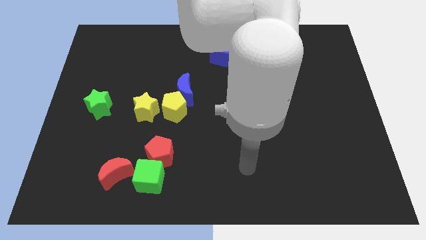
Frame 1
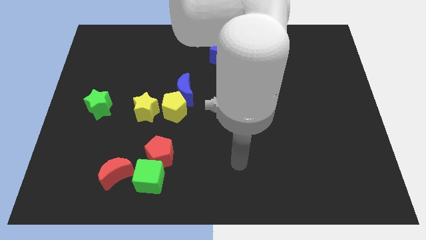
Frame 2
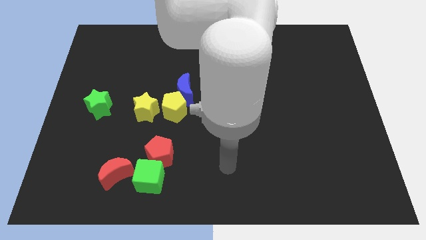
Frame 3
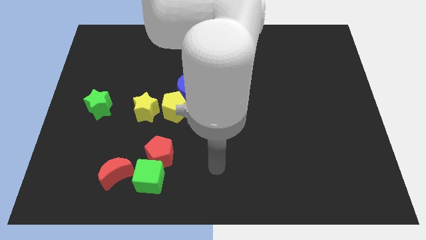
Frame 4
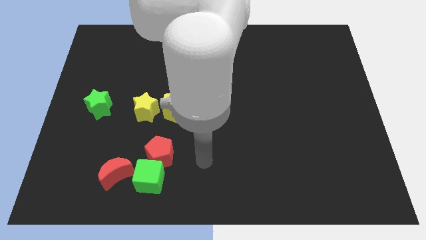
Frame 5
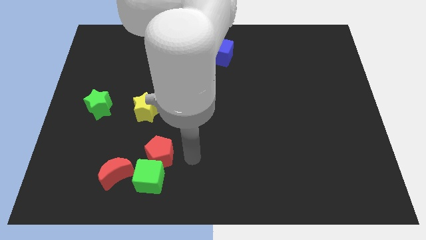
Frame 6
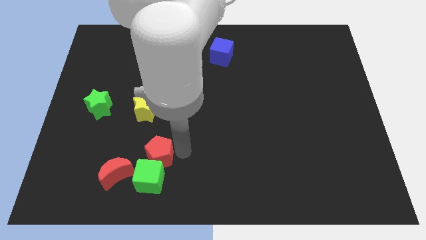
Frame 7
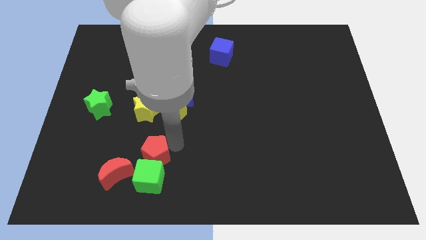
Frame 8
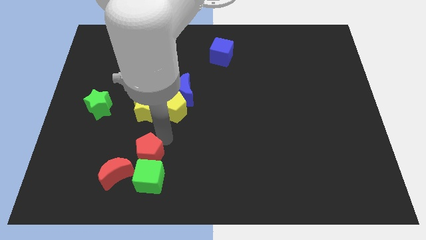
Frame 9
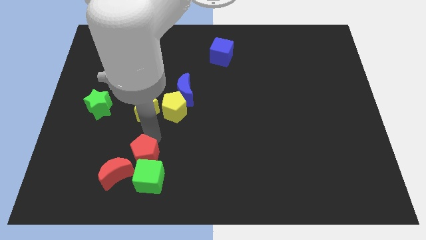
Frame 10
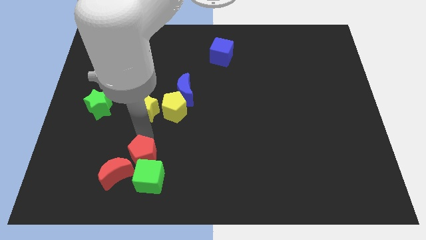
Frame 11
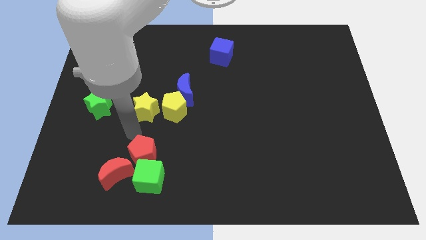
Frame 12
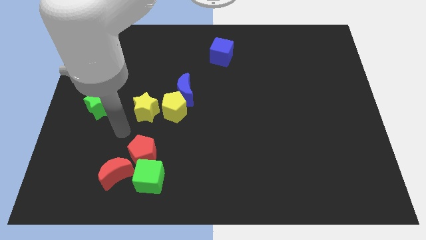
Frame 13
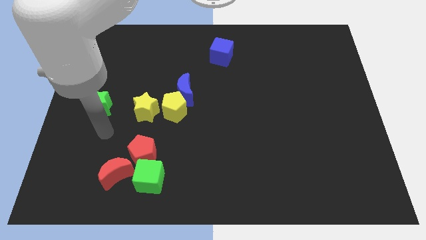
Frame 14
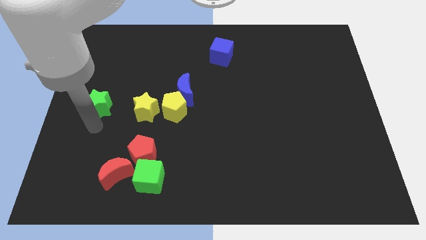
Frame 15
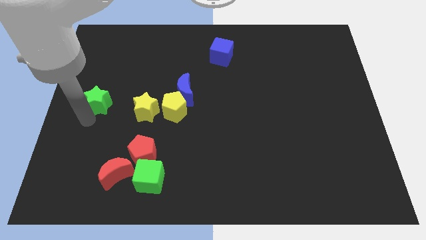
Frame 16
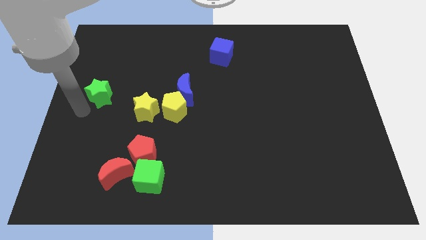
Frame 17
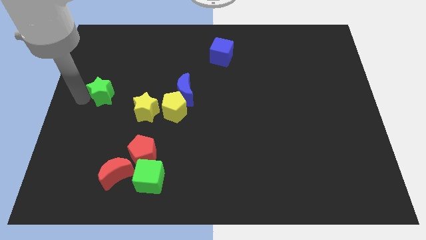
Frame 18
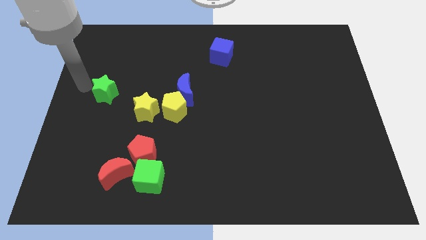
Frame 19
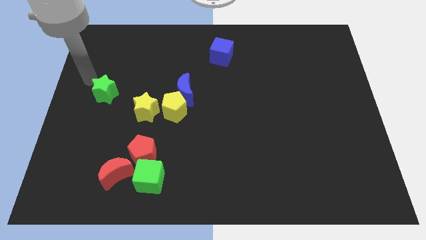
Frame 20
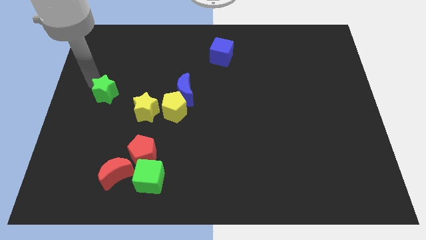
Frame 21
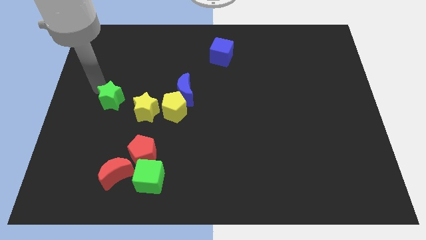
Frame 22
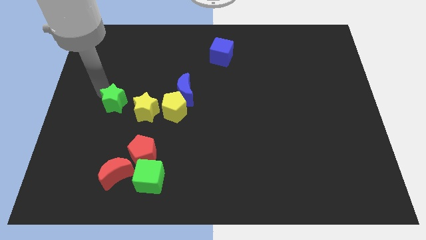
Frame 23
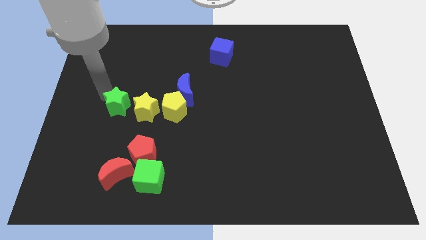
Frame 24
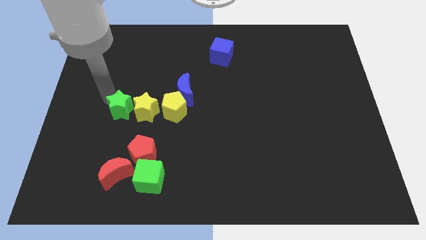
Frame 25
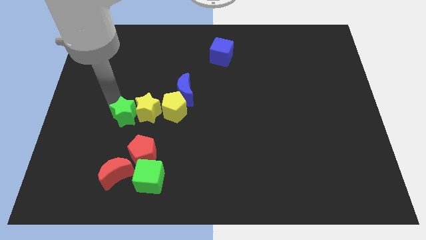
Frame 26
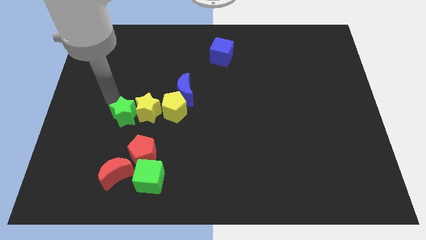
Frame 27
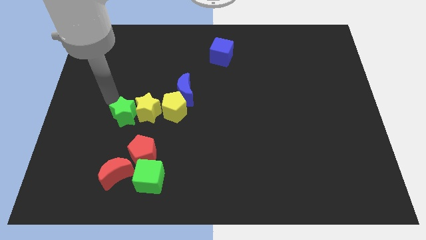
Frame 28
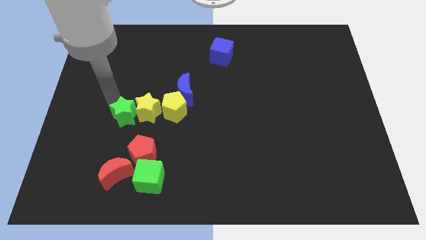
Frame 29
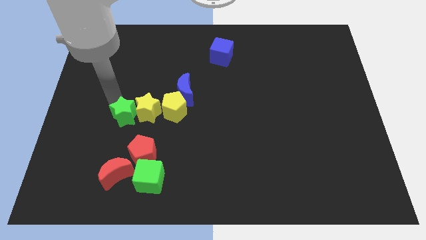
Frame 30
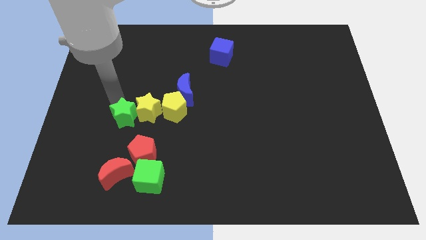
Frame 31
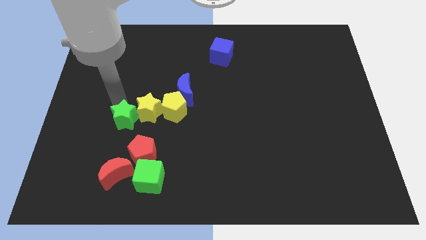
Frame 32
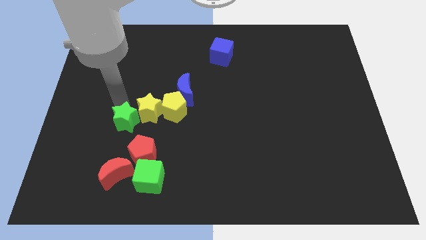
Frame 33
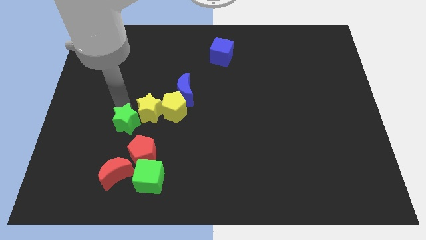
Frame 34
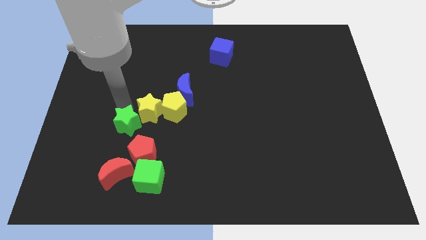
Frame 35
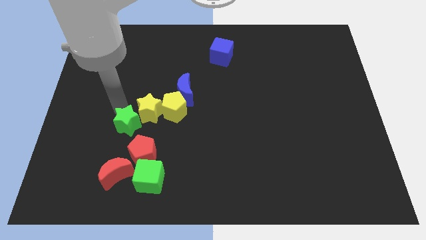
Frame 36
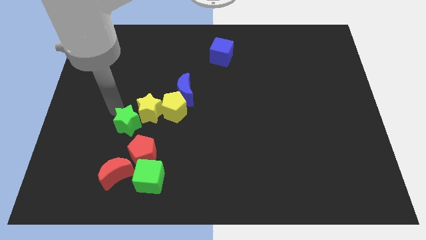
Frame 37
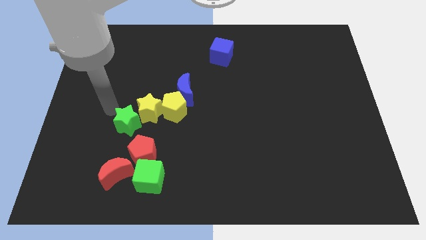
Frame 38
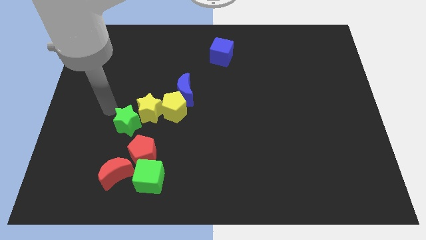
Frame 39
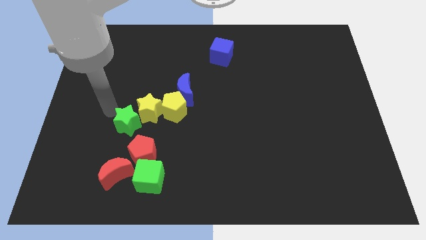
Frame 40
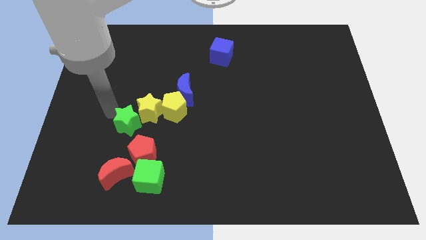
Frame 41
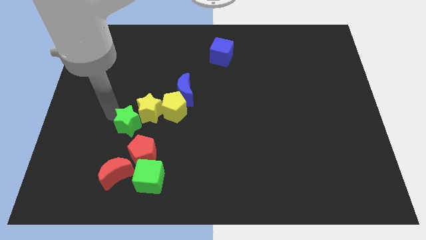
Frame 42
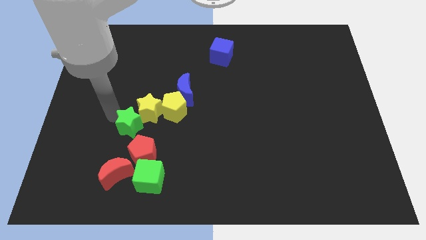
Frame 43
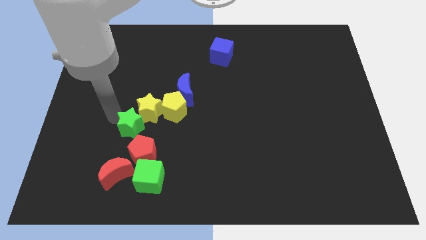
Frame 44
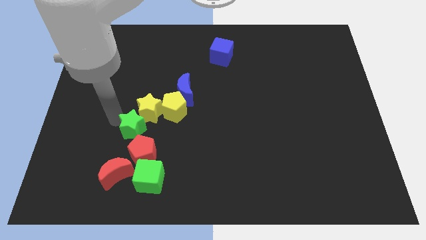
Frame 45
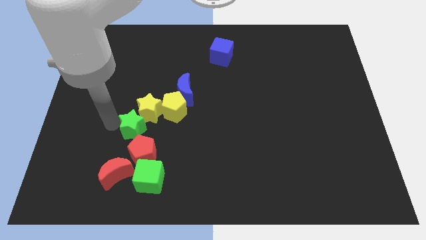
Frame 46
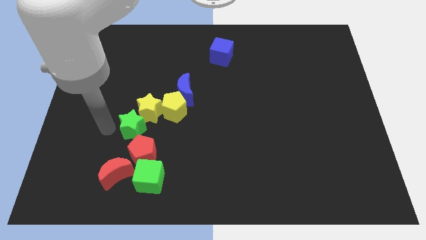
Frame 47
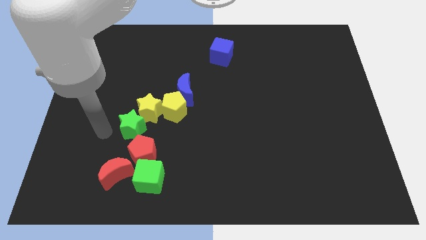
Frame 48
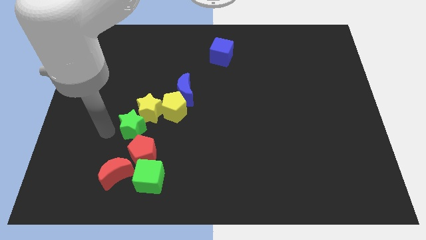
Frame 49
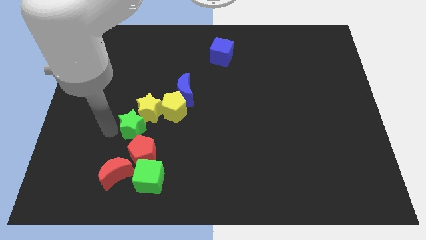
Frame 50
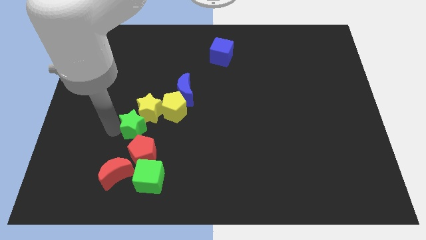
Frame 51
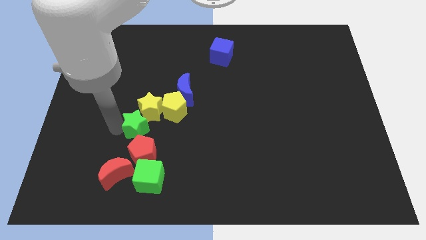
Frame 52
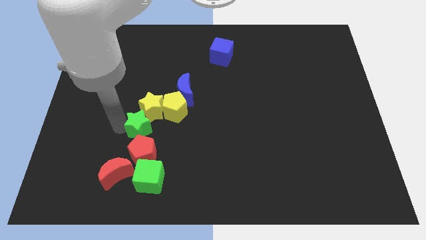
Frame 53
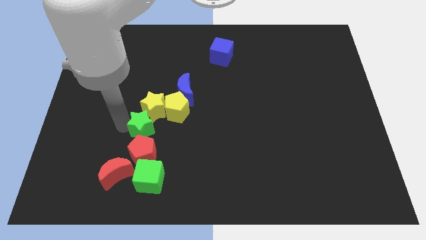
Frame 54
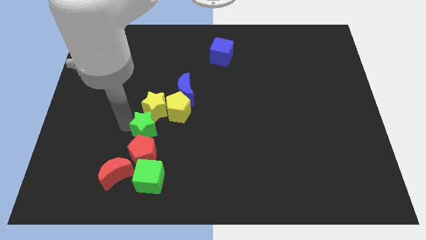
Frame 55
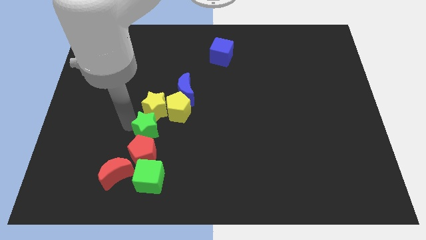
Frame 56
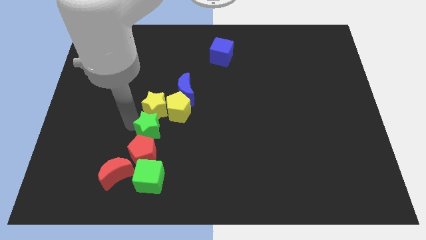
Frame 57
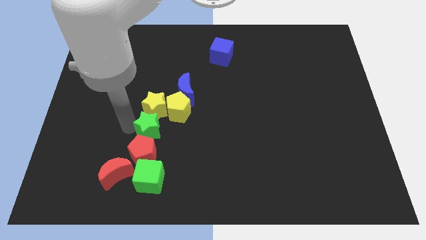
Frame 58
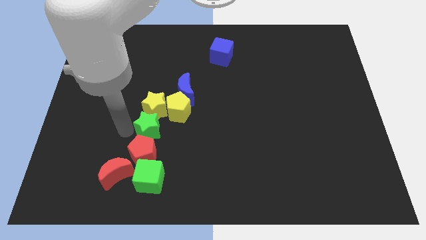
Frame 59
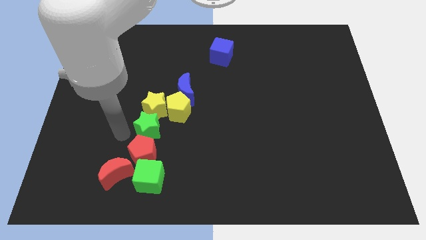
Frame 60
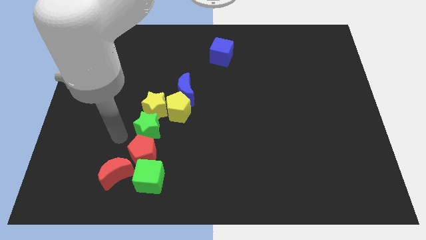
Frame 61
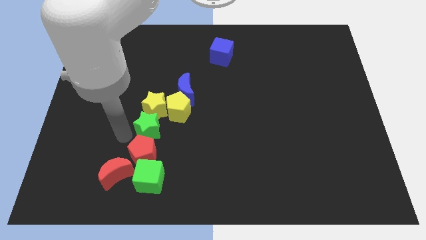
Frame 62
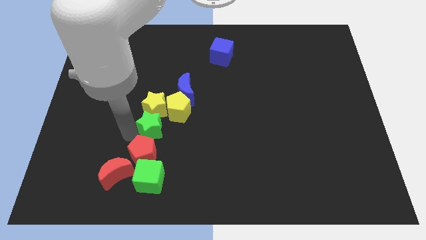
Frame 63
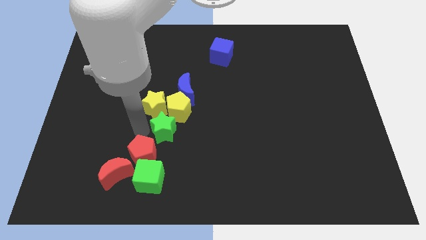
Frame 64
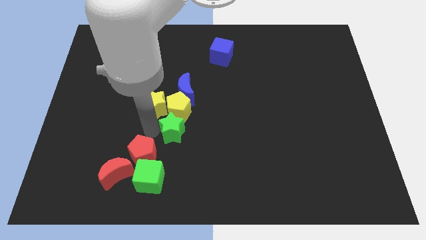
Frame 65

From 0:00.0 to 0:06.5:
move the green star to the bottom right of the yellow pentagon

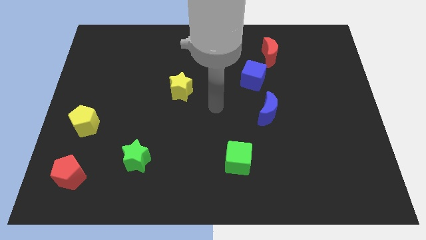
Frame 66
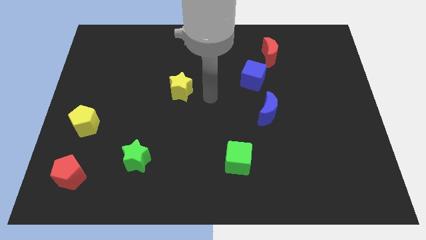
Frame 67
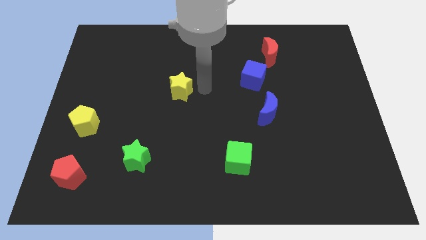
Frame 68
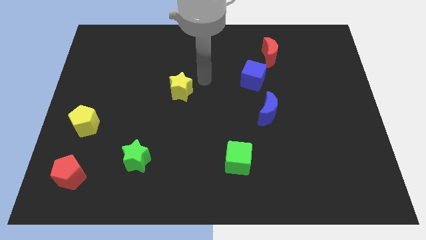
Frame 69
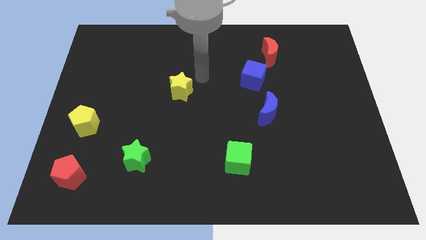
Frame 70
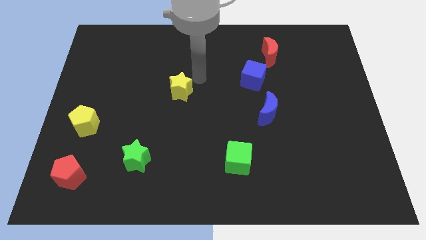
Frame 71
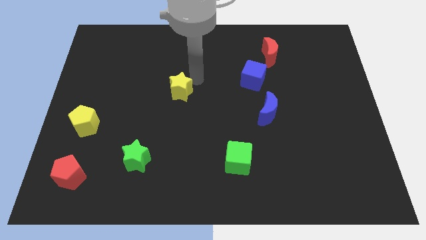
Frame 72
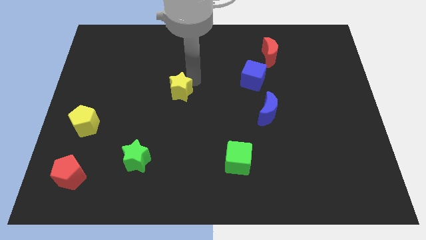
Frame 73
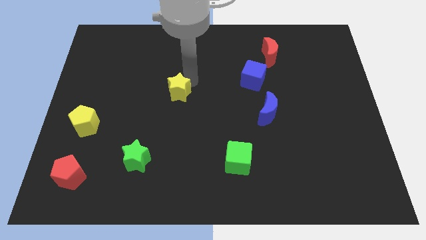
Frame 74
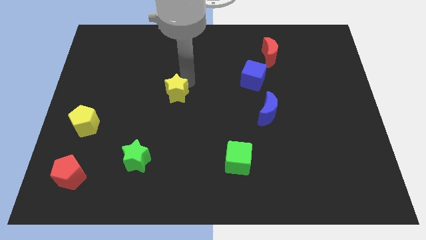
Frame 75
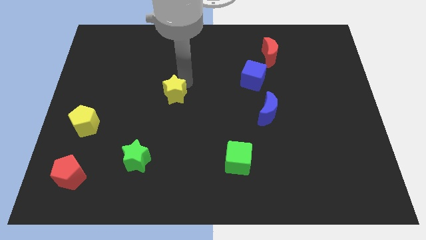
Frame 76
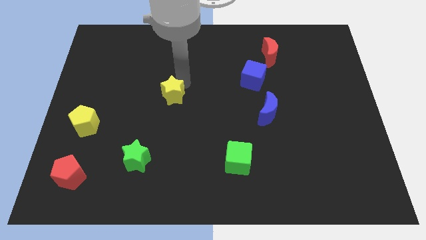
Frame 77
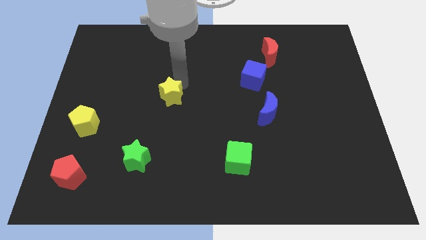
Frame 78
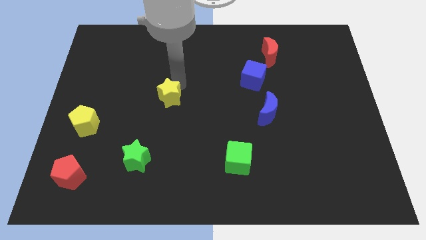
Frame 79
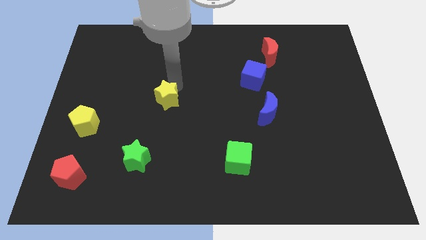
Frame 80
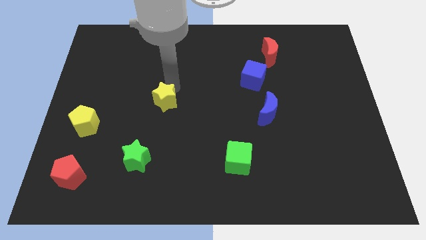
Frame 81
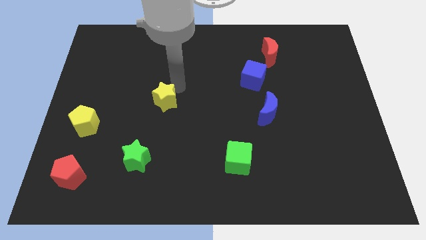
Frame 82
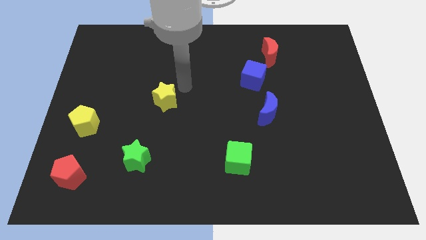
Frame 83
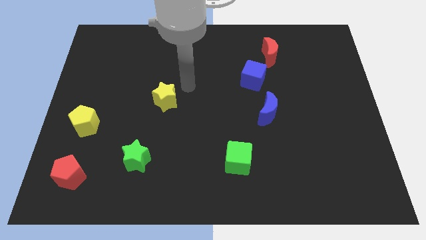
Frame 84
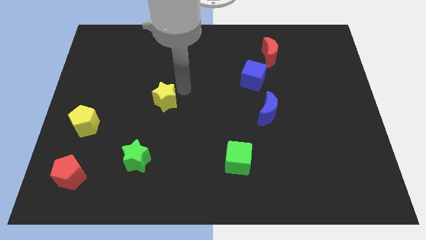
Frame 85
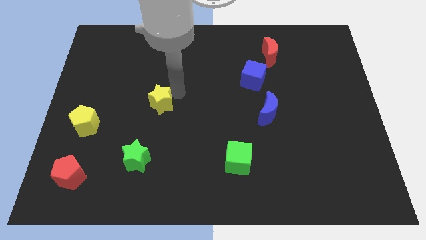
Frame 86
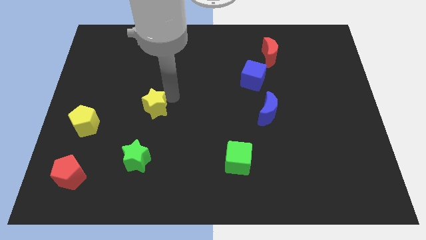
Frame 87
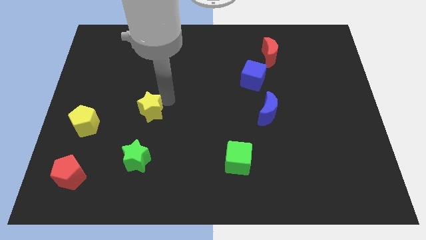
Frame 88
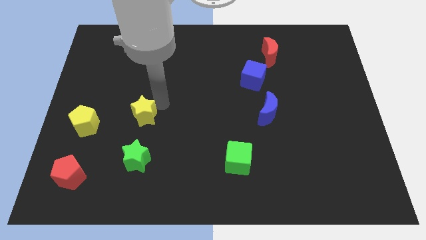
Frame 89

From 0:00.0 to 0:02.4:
push the yellow star just right of the yellow pentagon
